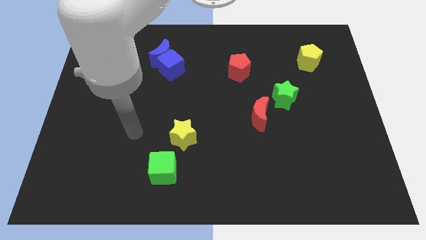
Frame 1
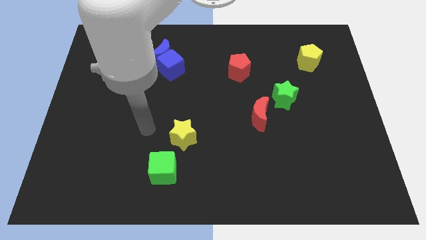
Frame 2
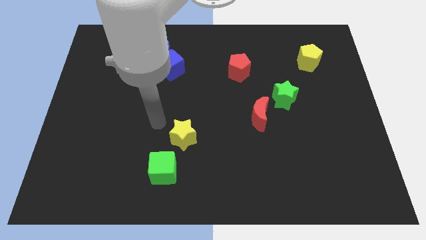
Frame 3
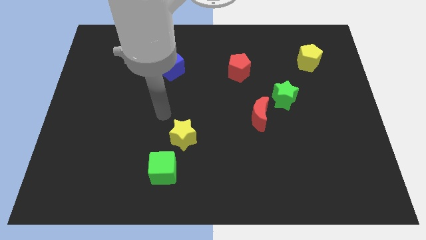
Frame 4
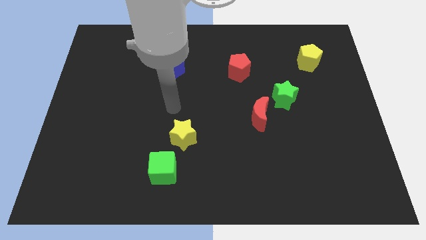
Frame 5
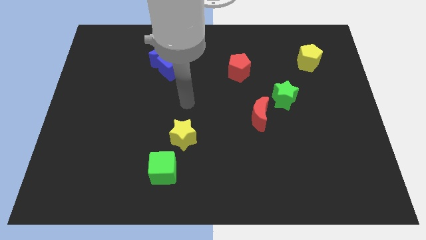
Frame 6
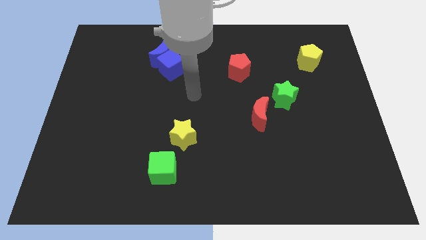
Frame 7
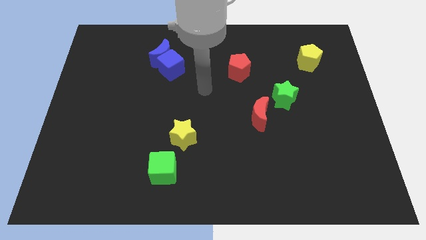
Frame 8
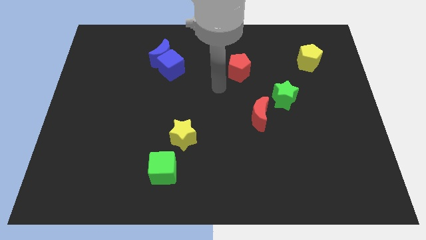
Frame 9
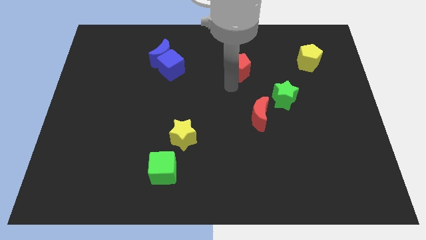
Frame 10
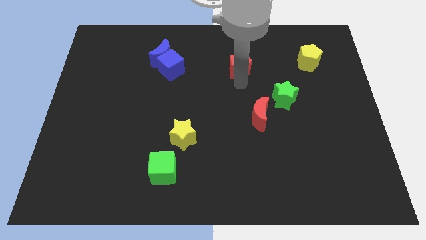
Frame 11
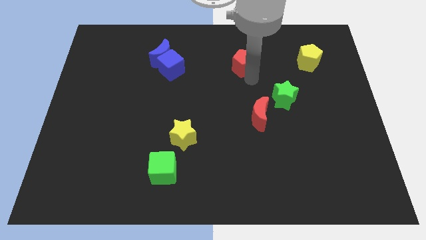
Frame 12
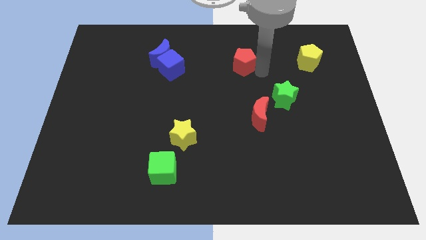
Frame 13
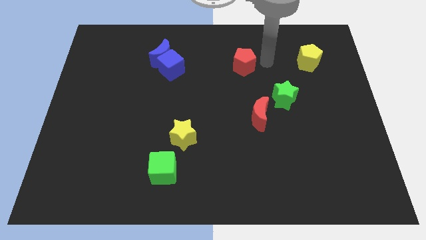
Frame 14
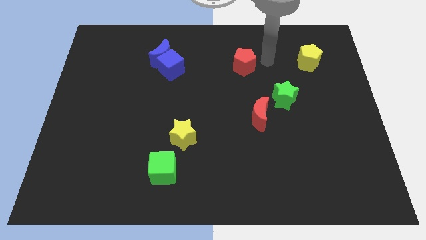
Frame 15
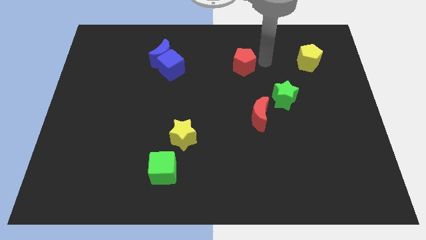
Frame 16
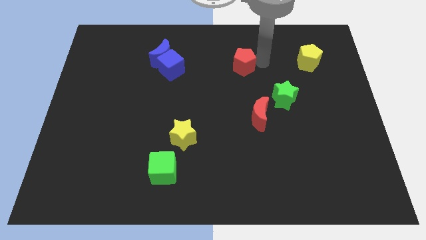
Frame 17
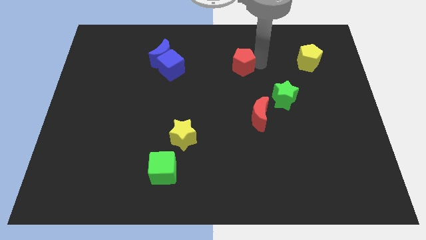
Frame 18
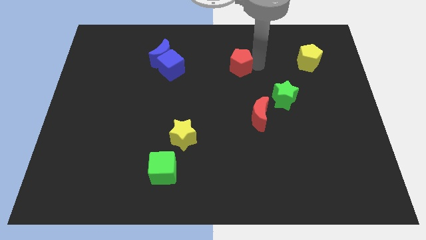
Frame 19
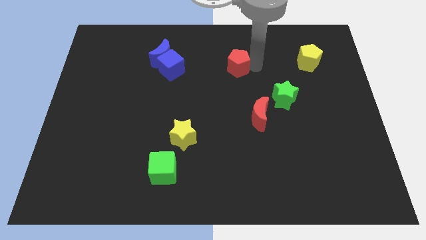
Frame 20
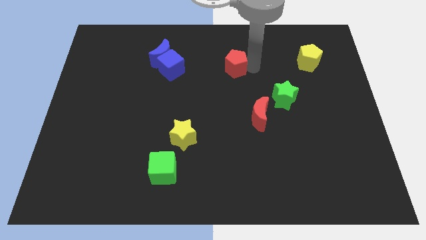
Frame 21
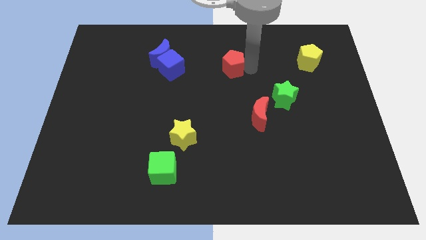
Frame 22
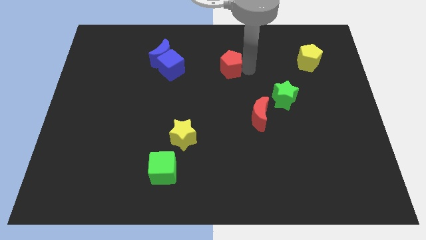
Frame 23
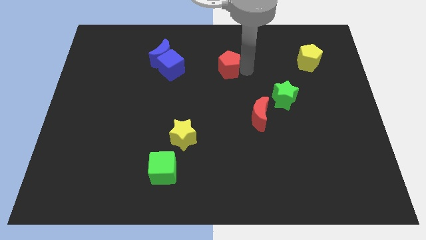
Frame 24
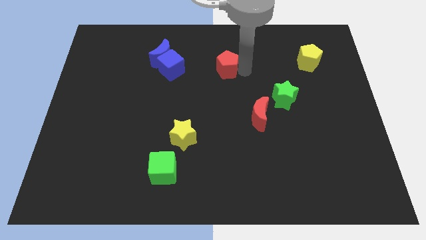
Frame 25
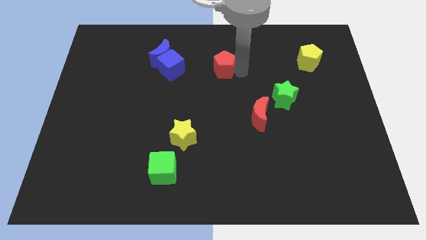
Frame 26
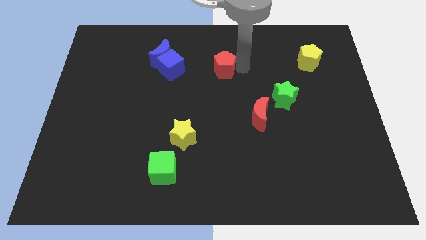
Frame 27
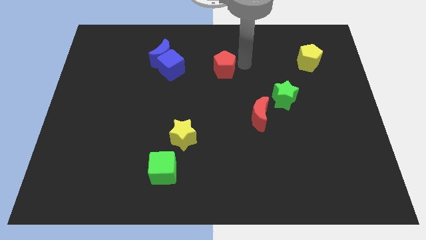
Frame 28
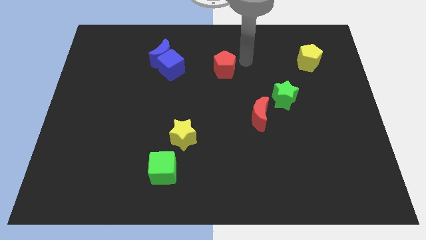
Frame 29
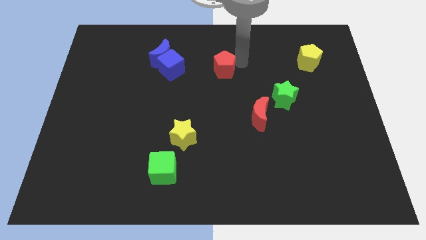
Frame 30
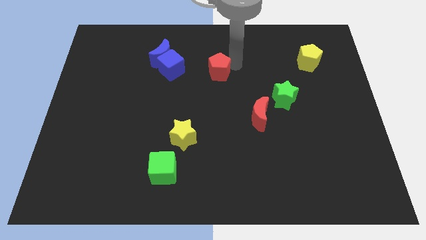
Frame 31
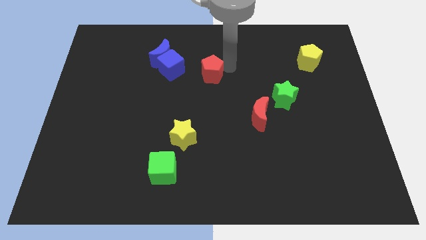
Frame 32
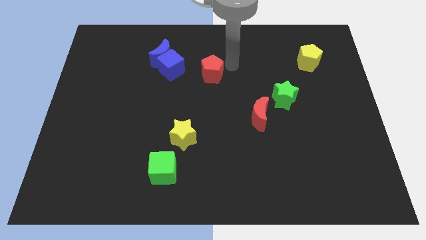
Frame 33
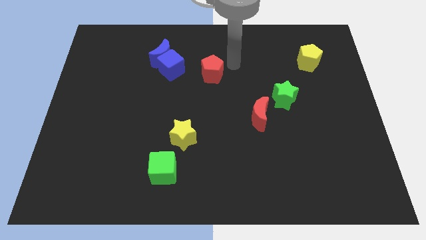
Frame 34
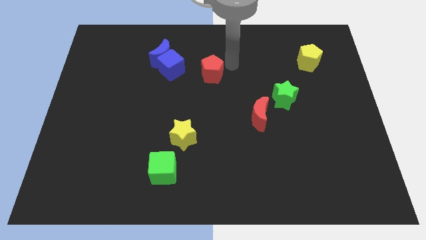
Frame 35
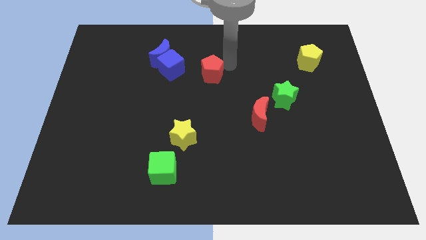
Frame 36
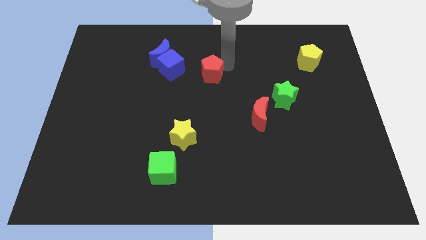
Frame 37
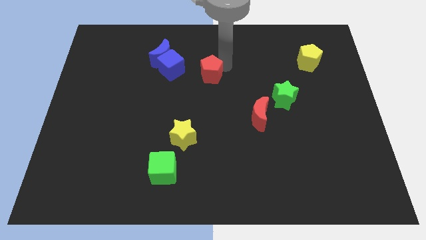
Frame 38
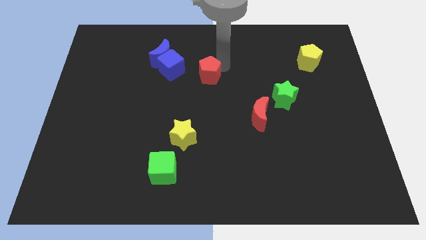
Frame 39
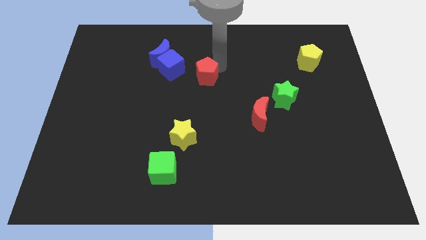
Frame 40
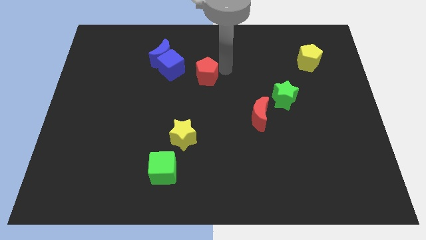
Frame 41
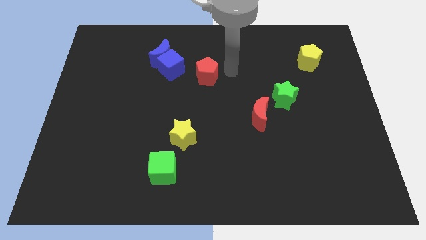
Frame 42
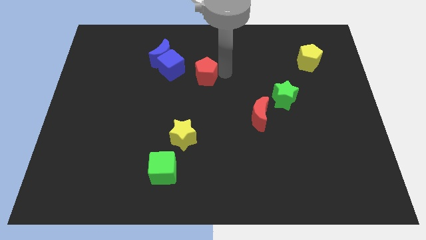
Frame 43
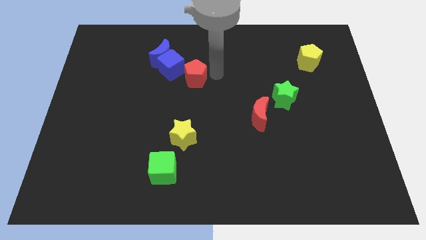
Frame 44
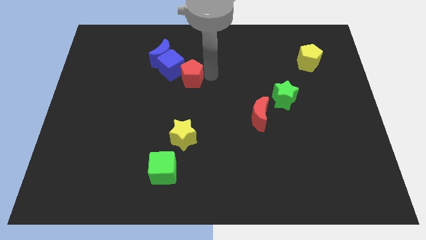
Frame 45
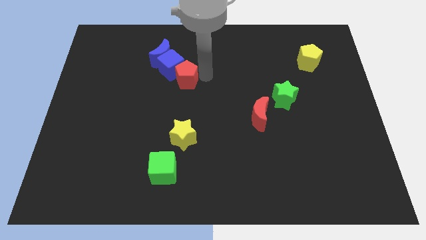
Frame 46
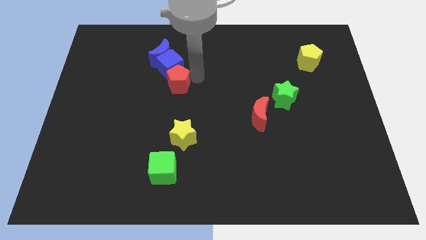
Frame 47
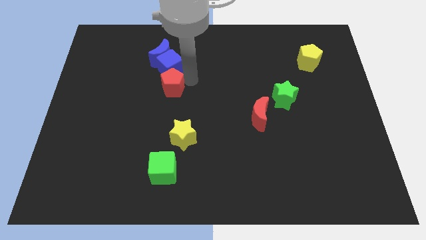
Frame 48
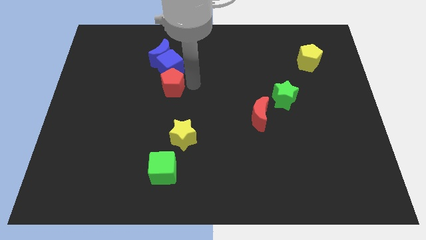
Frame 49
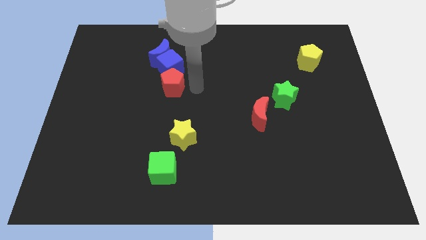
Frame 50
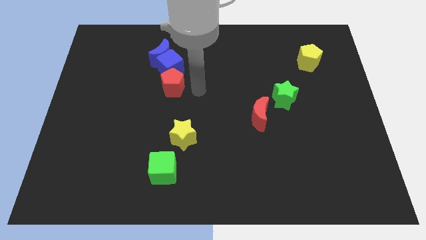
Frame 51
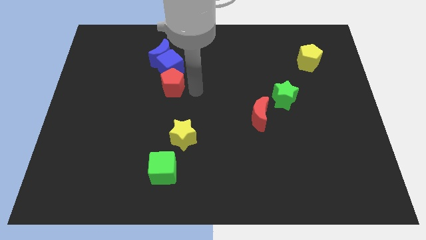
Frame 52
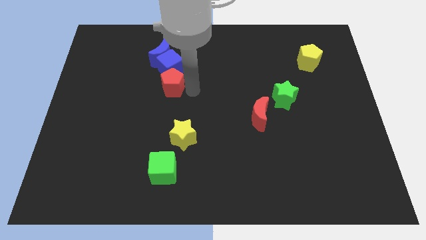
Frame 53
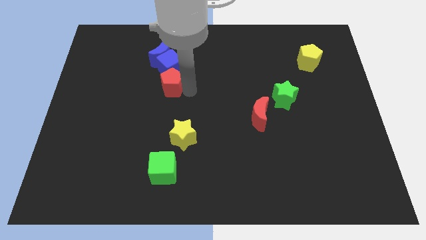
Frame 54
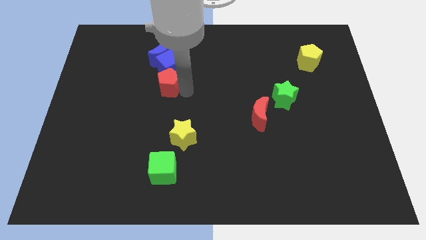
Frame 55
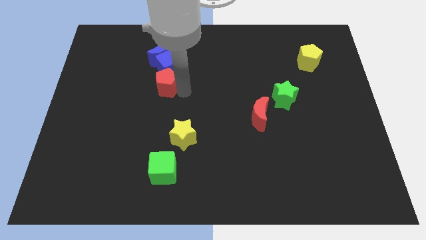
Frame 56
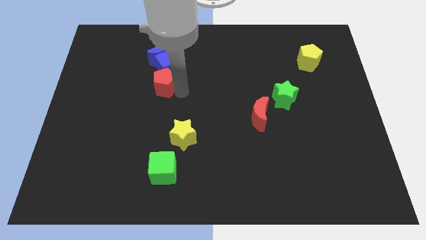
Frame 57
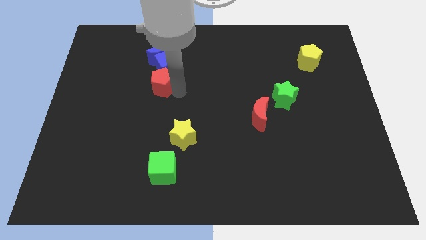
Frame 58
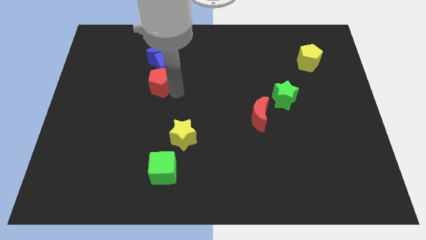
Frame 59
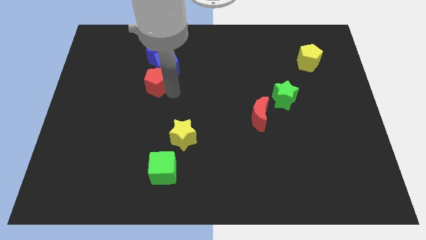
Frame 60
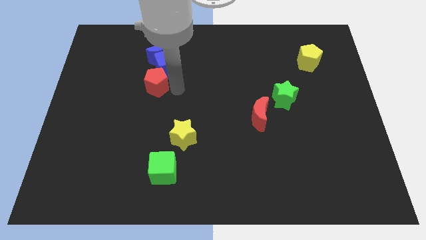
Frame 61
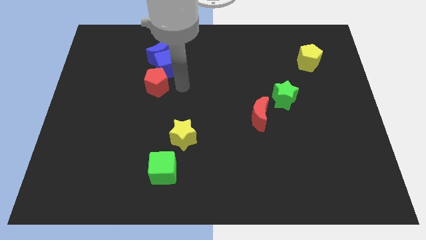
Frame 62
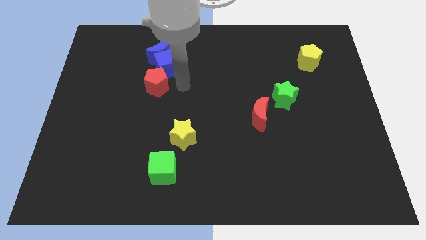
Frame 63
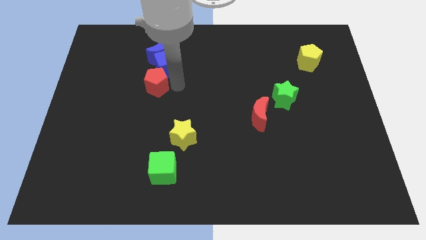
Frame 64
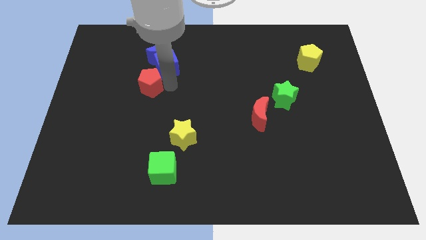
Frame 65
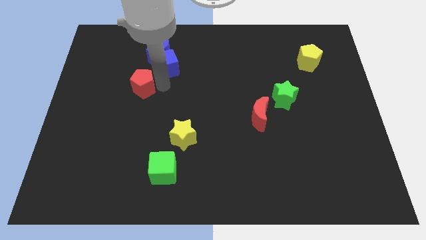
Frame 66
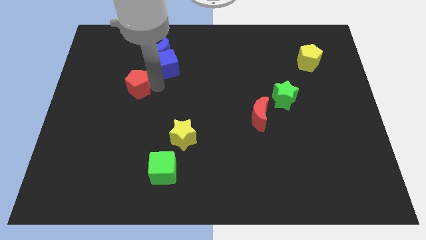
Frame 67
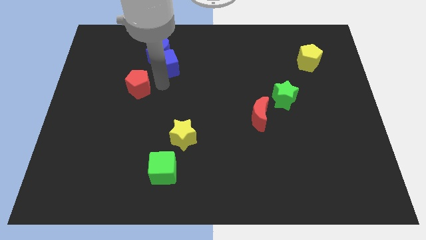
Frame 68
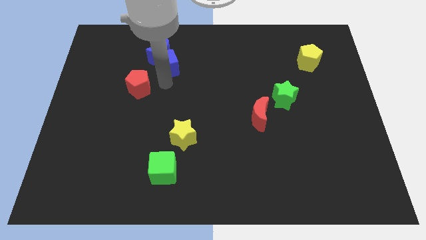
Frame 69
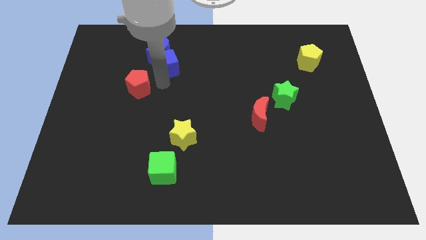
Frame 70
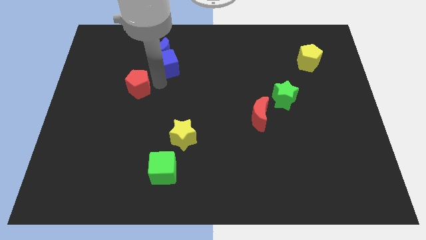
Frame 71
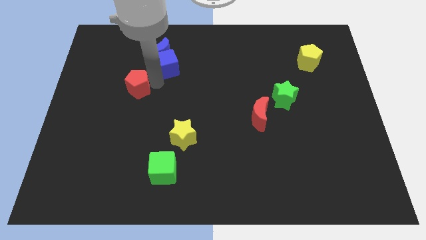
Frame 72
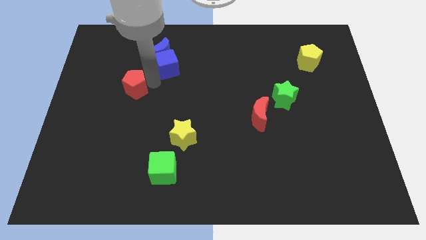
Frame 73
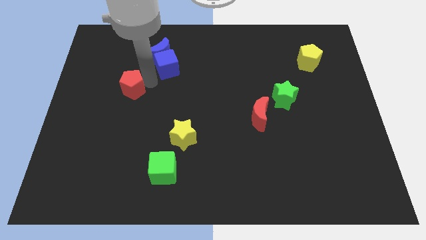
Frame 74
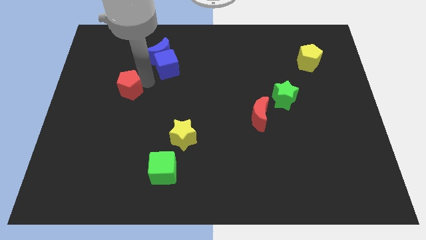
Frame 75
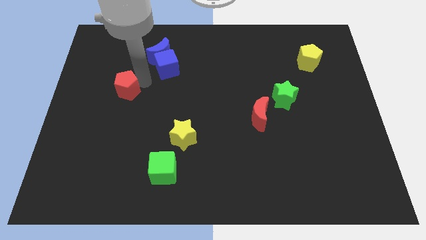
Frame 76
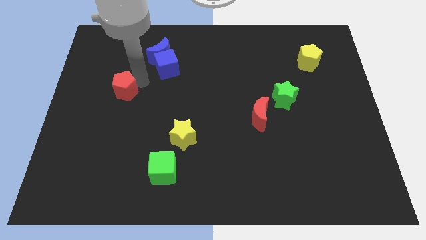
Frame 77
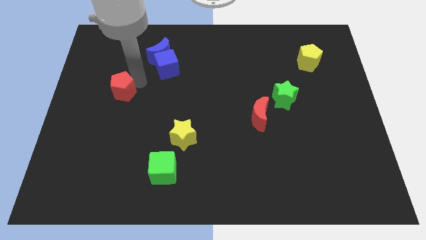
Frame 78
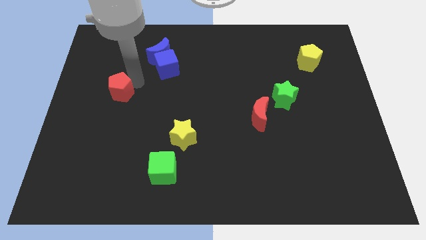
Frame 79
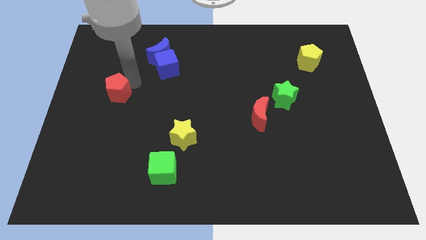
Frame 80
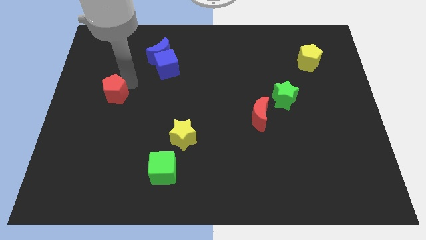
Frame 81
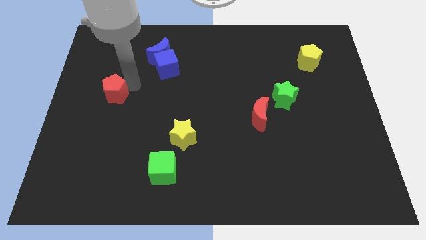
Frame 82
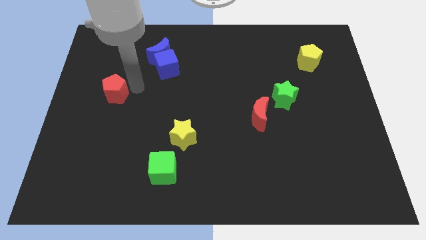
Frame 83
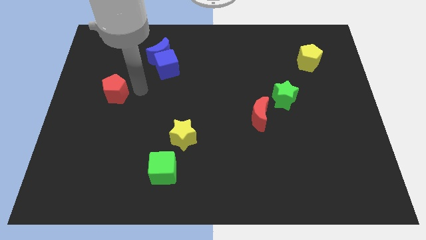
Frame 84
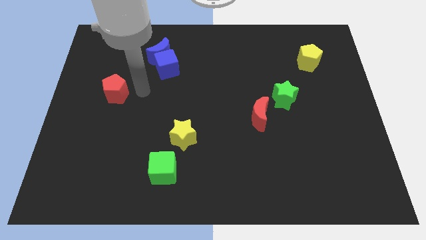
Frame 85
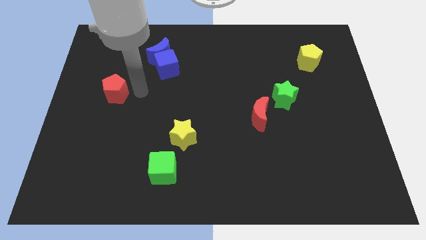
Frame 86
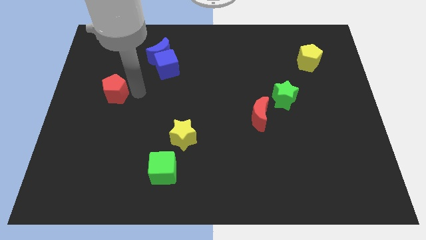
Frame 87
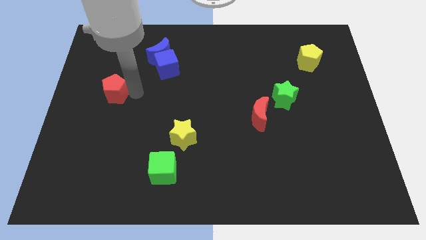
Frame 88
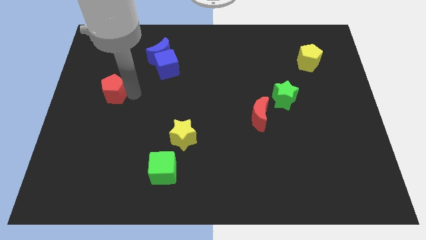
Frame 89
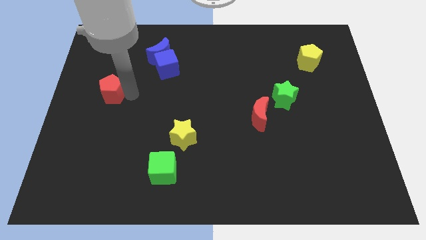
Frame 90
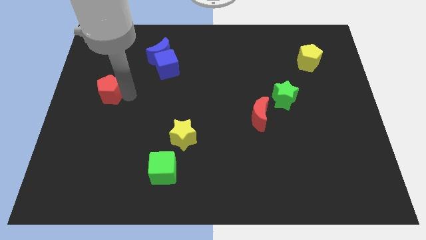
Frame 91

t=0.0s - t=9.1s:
move the red pentagon to the left side of the board
